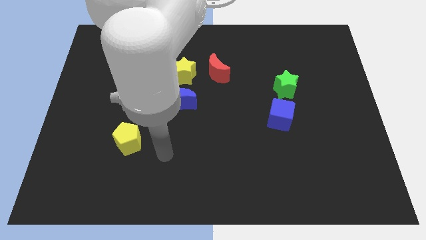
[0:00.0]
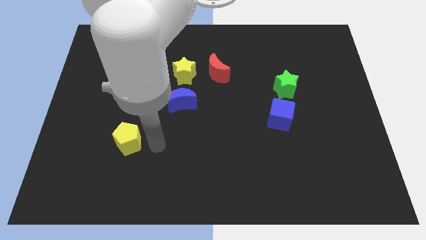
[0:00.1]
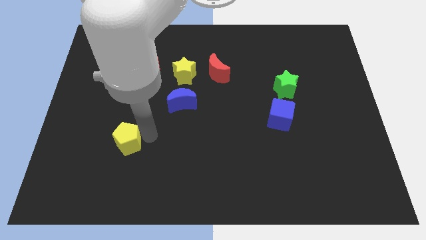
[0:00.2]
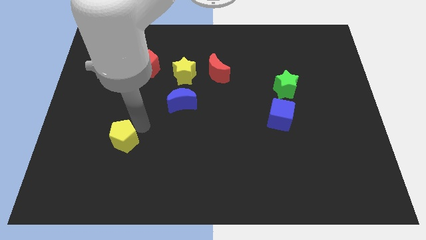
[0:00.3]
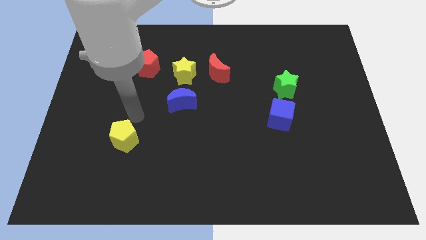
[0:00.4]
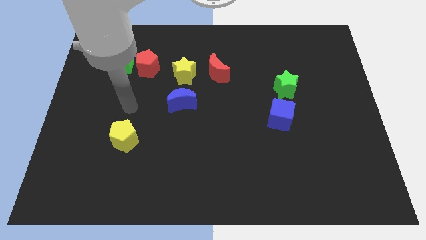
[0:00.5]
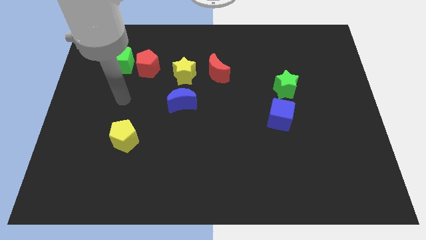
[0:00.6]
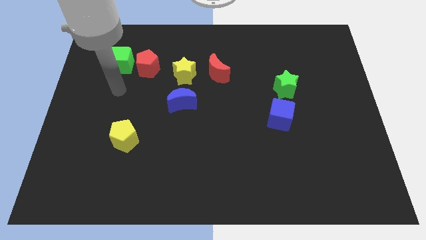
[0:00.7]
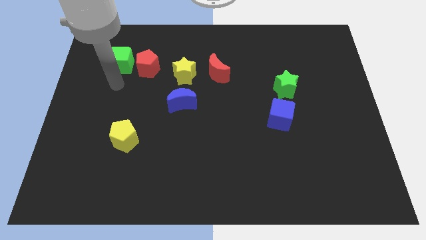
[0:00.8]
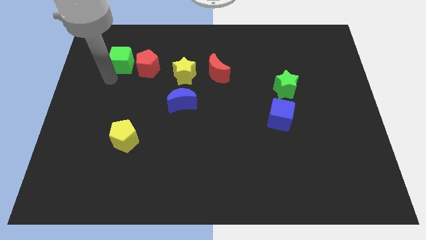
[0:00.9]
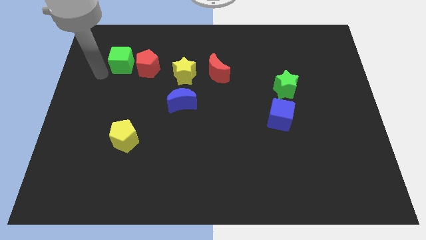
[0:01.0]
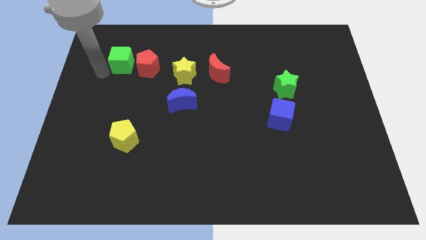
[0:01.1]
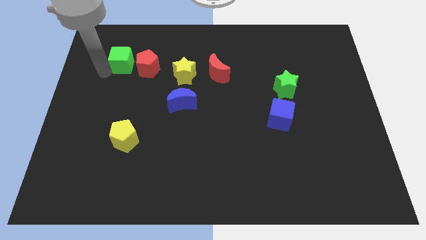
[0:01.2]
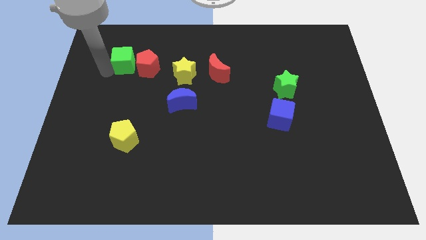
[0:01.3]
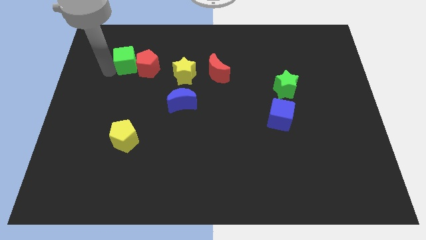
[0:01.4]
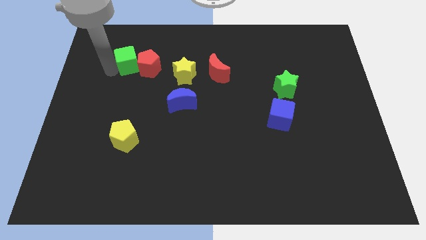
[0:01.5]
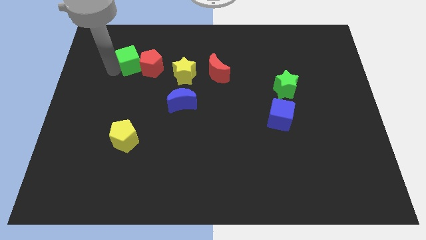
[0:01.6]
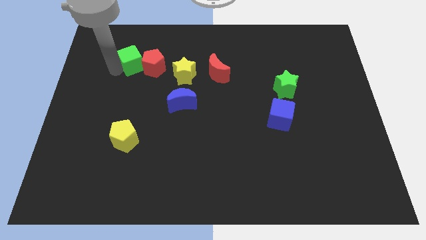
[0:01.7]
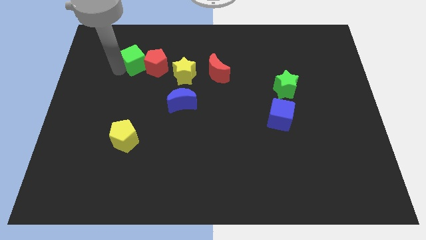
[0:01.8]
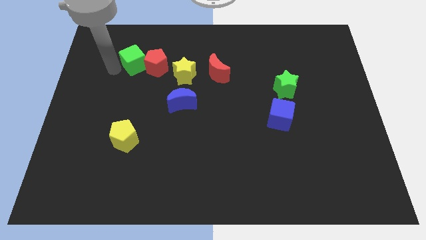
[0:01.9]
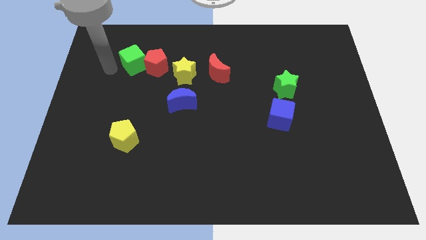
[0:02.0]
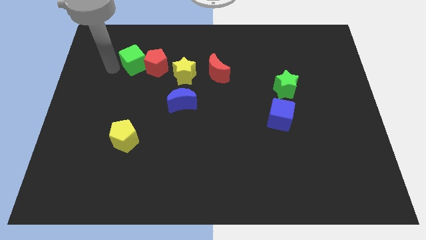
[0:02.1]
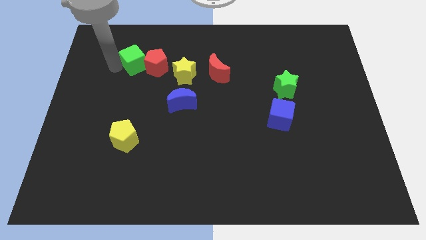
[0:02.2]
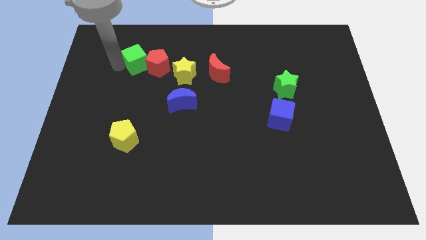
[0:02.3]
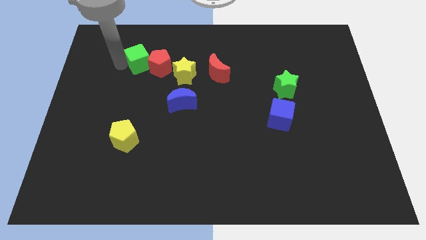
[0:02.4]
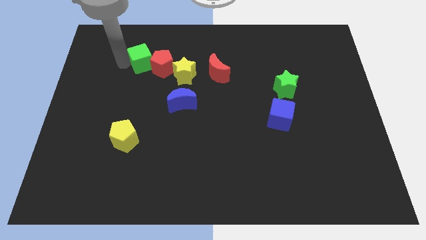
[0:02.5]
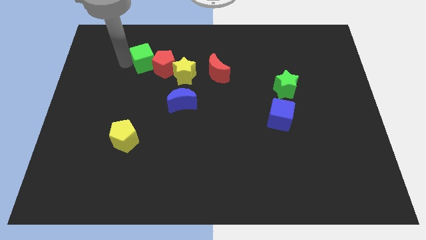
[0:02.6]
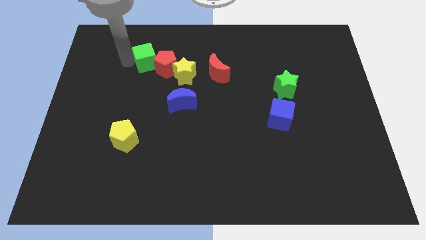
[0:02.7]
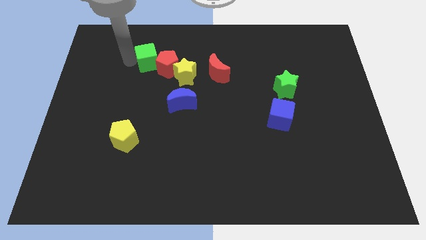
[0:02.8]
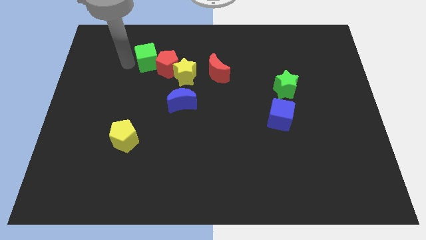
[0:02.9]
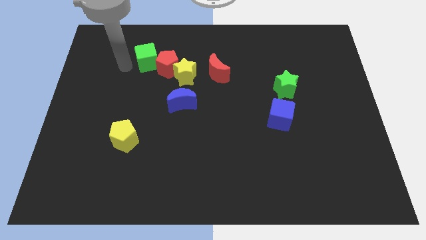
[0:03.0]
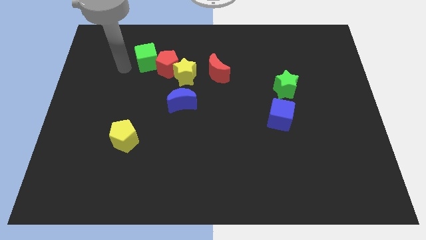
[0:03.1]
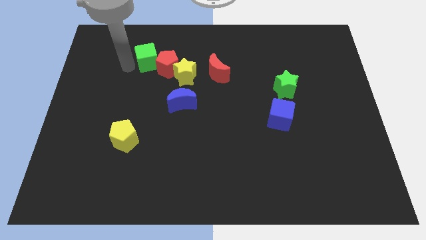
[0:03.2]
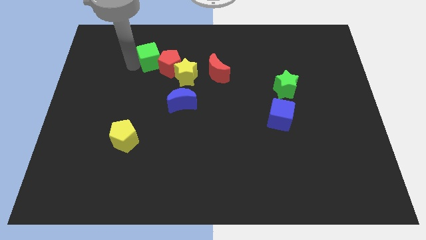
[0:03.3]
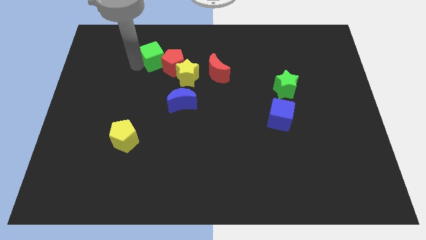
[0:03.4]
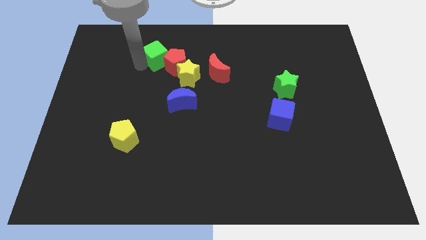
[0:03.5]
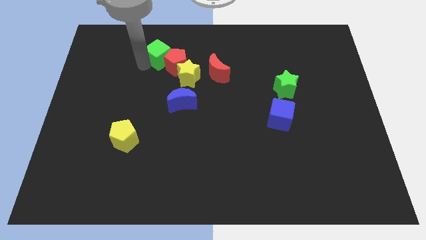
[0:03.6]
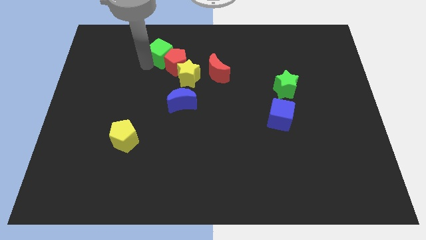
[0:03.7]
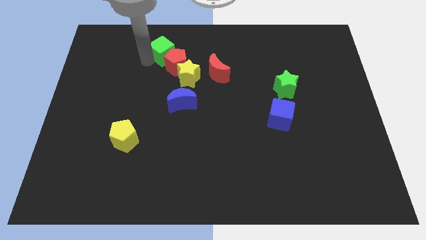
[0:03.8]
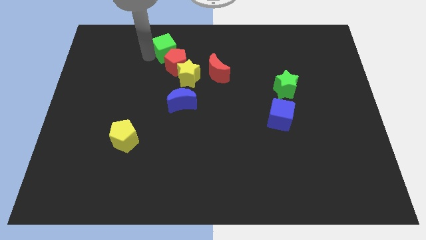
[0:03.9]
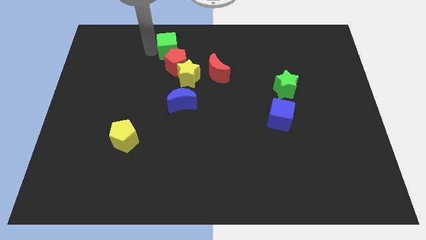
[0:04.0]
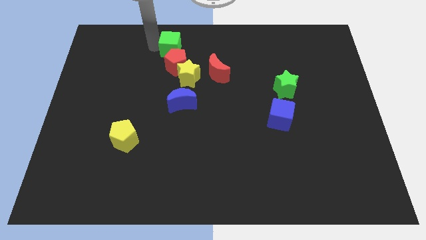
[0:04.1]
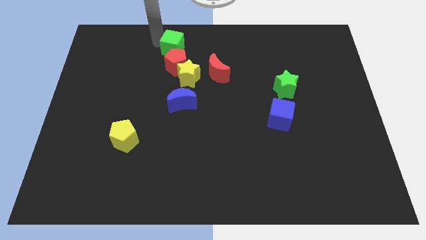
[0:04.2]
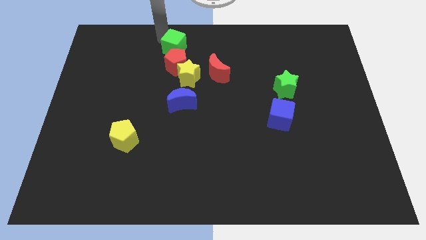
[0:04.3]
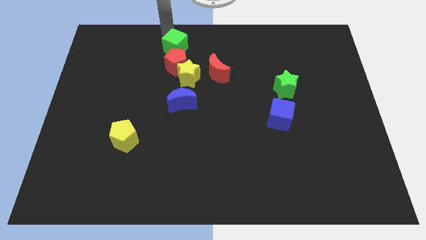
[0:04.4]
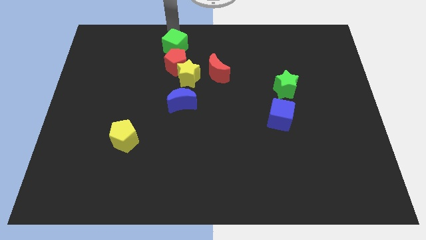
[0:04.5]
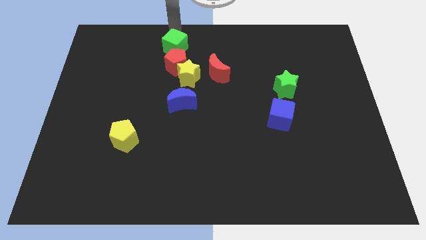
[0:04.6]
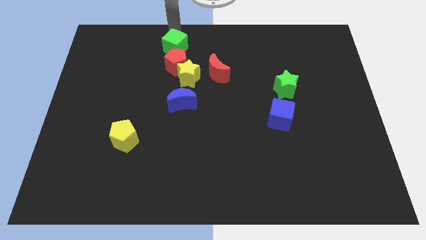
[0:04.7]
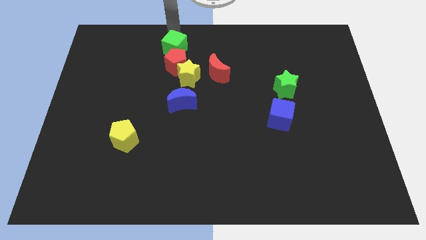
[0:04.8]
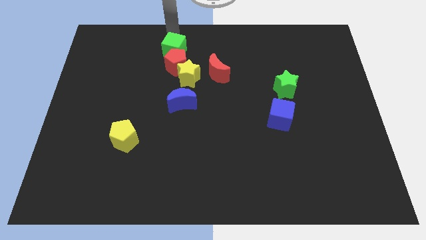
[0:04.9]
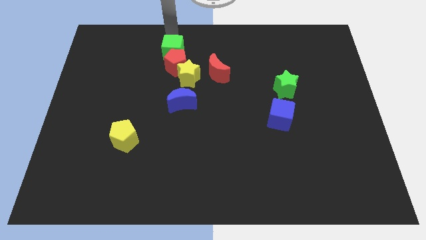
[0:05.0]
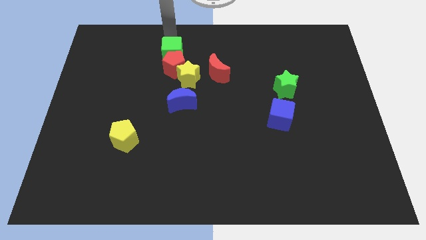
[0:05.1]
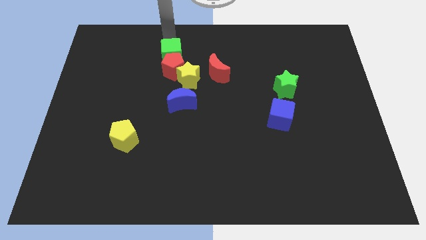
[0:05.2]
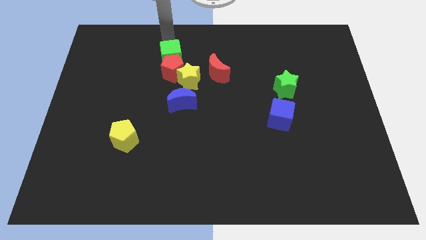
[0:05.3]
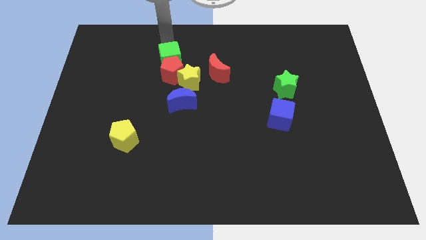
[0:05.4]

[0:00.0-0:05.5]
put the green cube to the left of the red moon

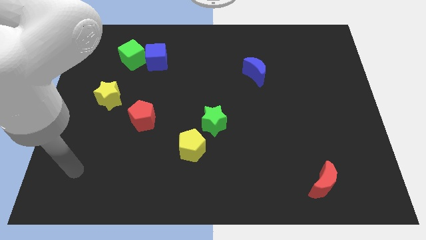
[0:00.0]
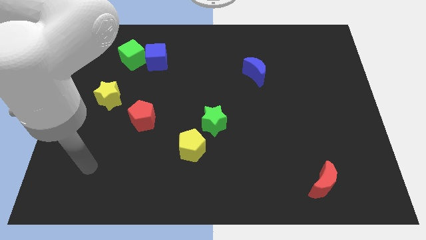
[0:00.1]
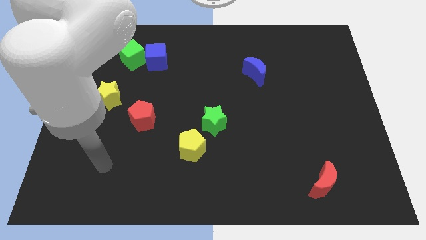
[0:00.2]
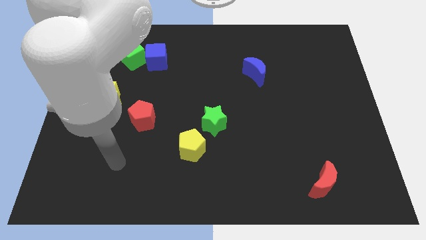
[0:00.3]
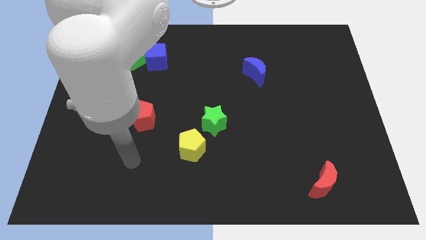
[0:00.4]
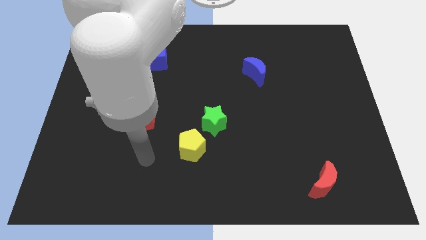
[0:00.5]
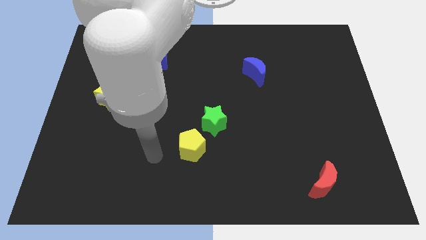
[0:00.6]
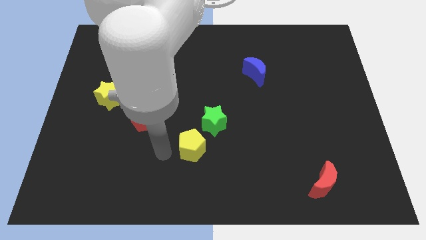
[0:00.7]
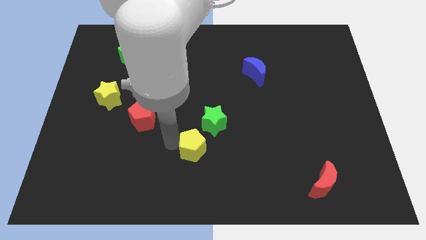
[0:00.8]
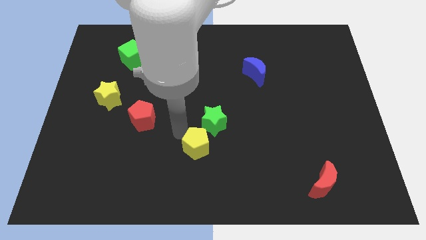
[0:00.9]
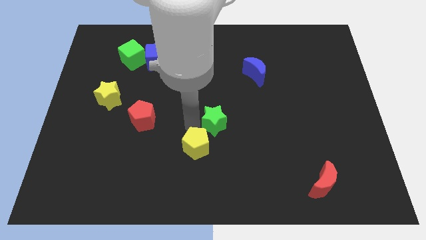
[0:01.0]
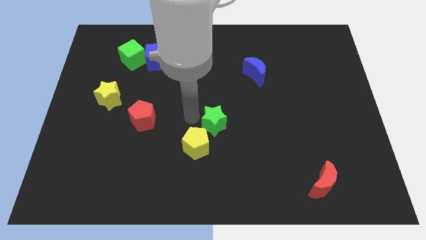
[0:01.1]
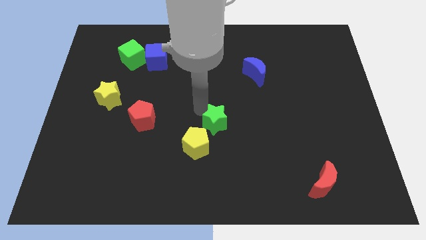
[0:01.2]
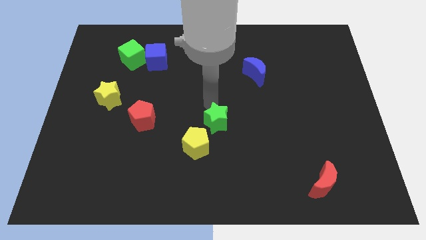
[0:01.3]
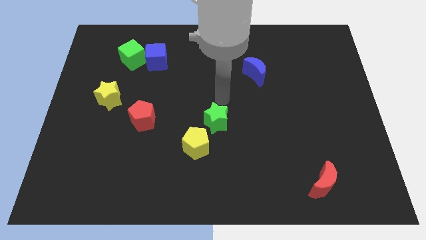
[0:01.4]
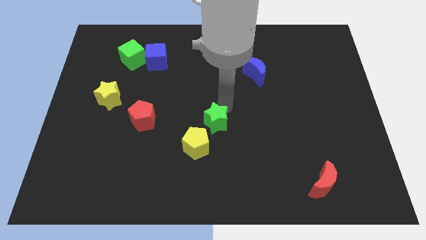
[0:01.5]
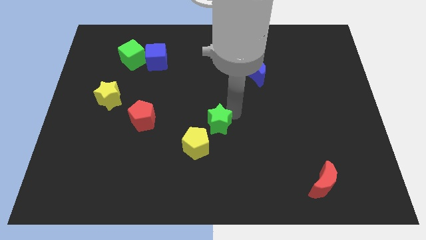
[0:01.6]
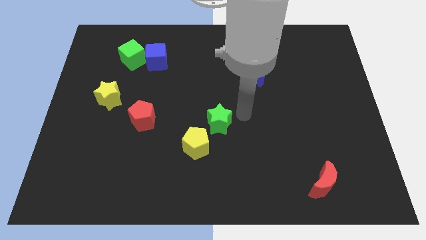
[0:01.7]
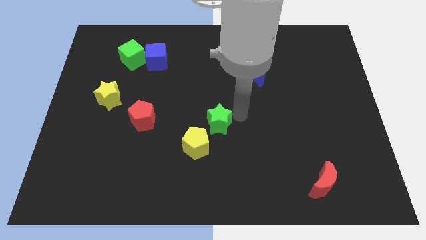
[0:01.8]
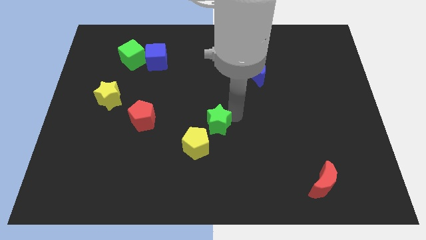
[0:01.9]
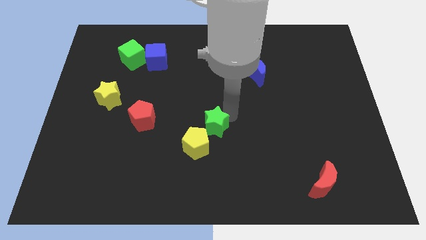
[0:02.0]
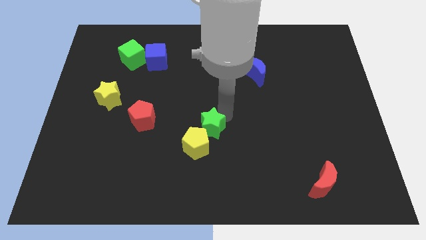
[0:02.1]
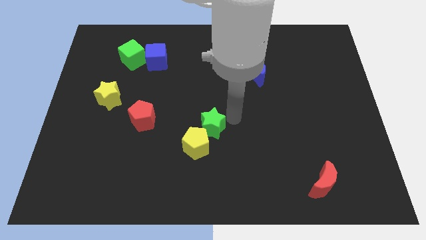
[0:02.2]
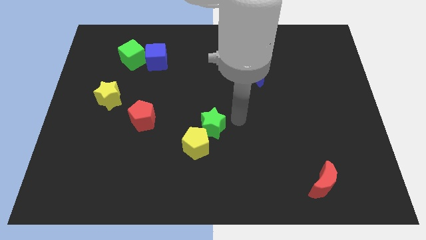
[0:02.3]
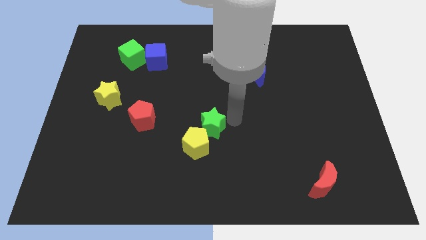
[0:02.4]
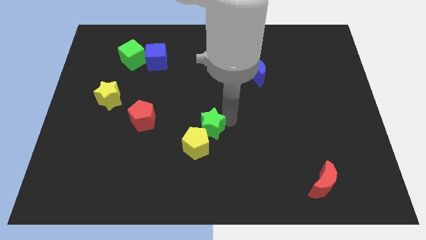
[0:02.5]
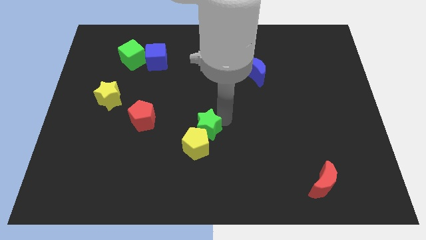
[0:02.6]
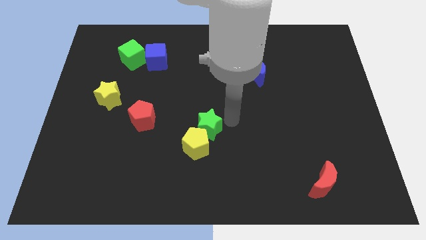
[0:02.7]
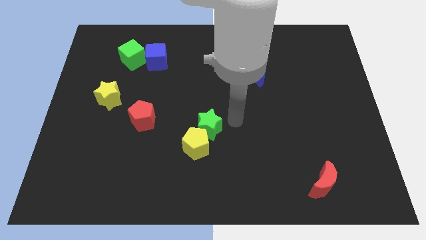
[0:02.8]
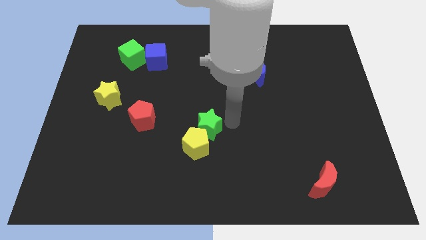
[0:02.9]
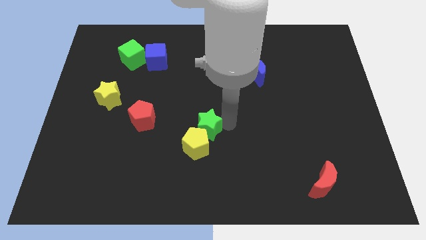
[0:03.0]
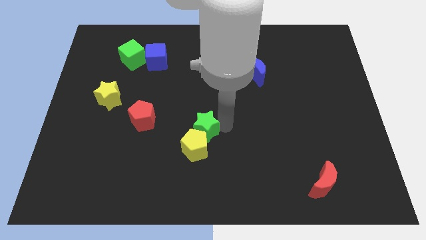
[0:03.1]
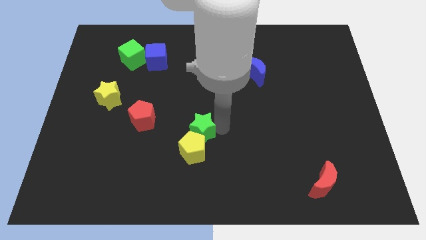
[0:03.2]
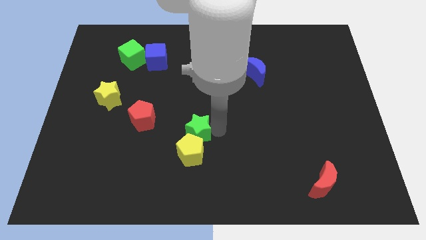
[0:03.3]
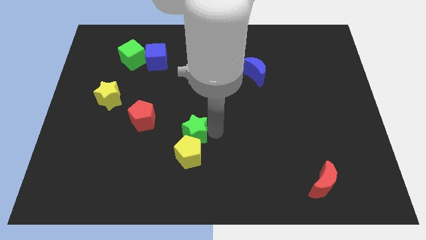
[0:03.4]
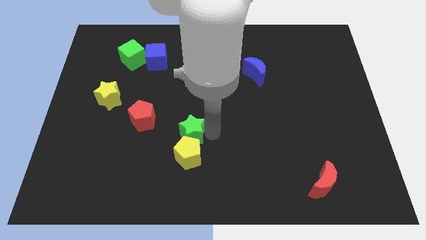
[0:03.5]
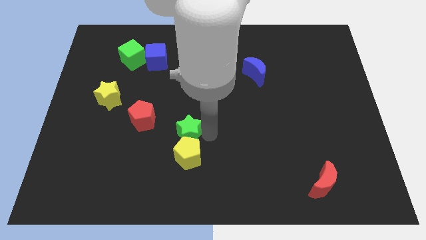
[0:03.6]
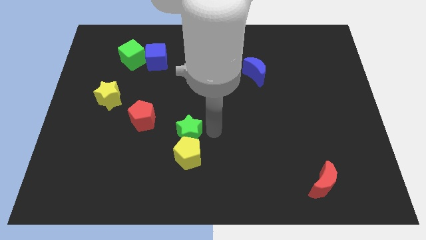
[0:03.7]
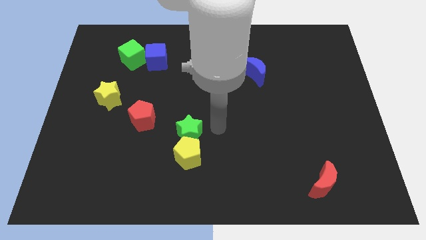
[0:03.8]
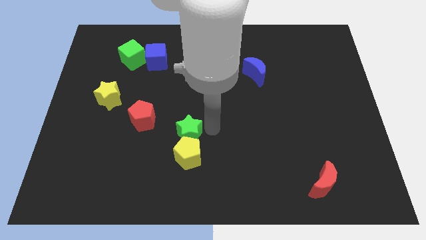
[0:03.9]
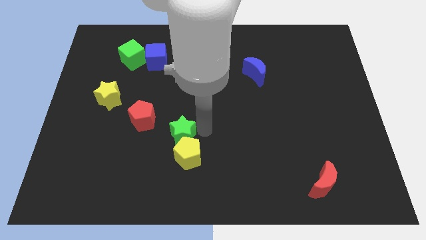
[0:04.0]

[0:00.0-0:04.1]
push the green star diagonally down and to the right of the red pentagon
